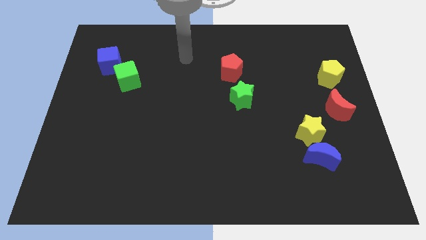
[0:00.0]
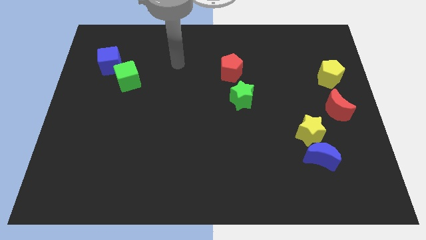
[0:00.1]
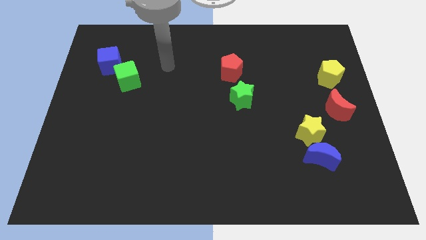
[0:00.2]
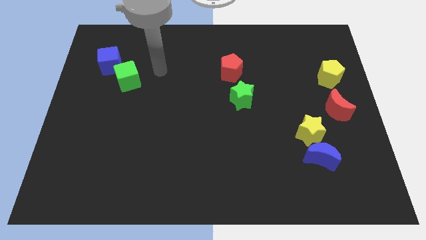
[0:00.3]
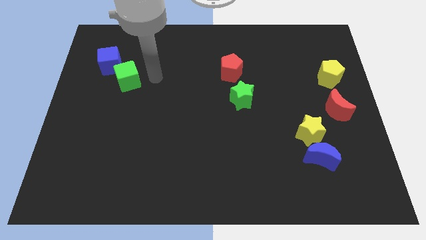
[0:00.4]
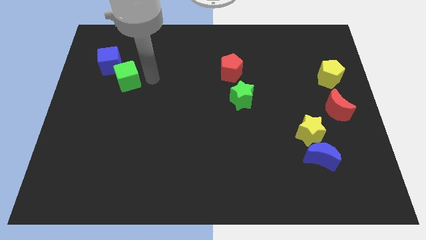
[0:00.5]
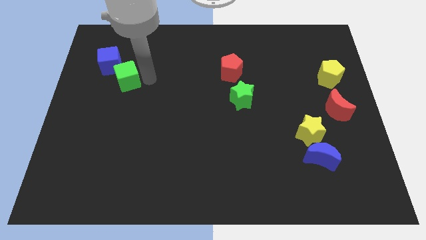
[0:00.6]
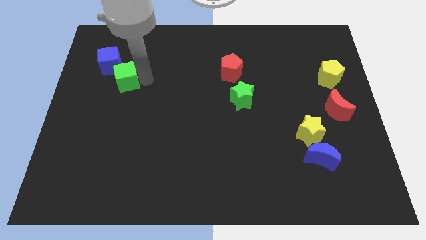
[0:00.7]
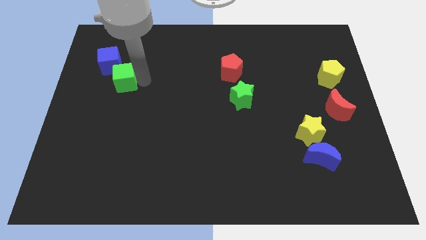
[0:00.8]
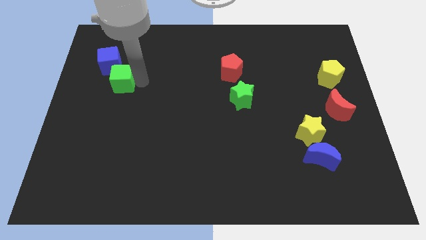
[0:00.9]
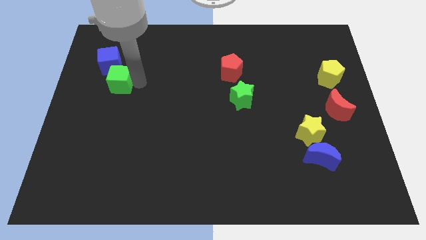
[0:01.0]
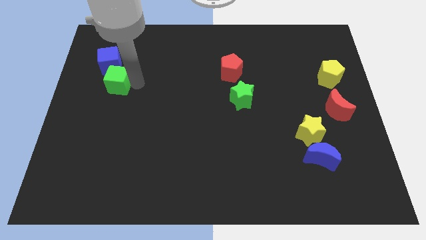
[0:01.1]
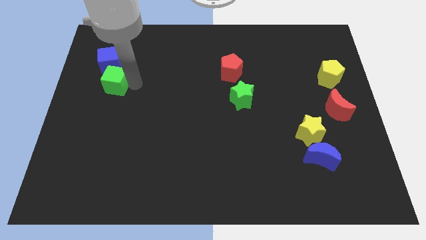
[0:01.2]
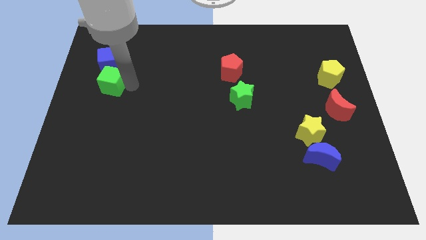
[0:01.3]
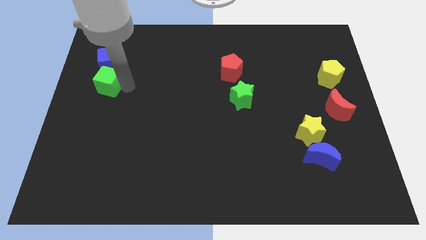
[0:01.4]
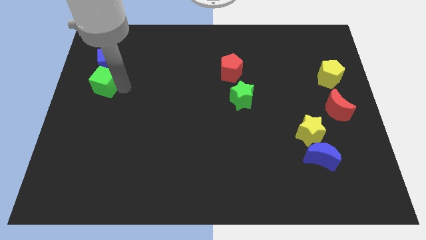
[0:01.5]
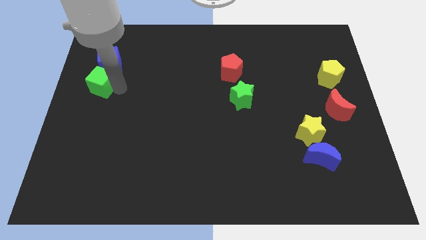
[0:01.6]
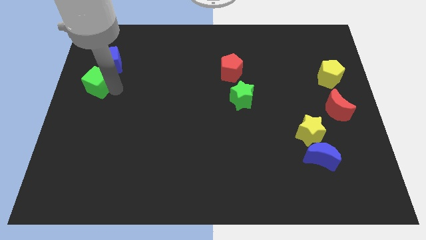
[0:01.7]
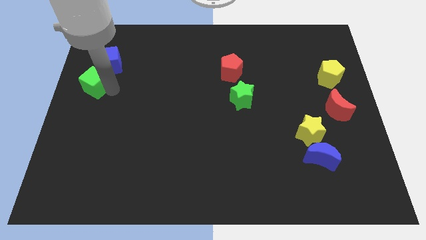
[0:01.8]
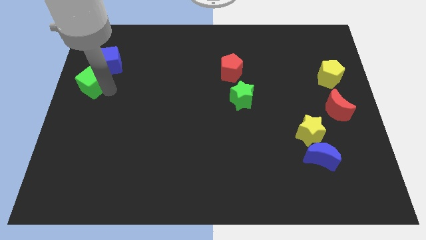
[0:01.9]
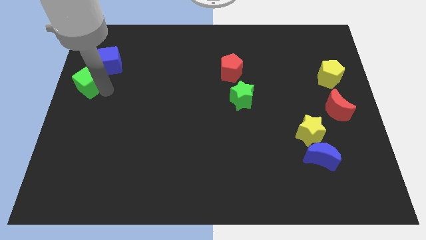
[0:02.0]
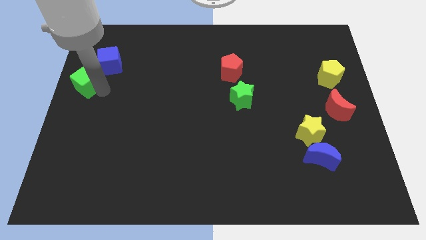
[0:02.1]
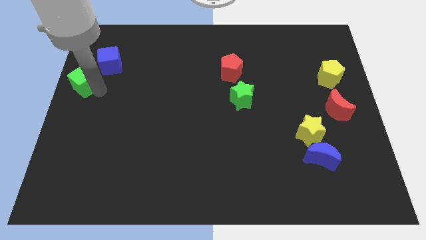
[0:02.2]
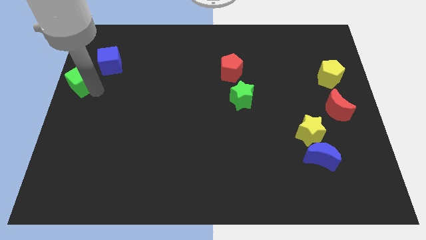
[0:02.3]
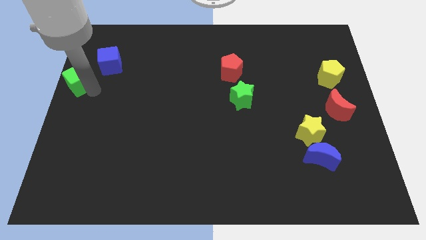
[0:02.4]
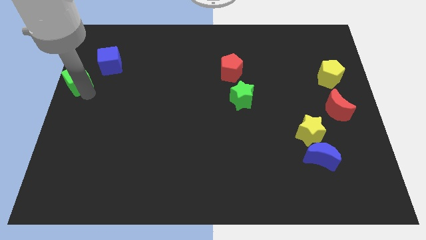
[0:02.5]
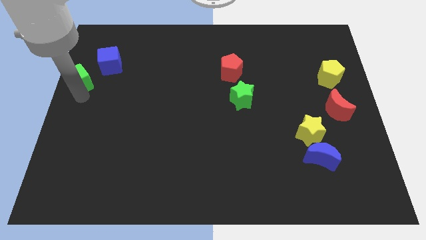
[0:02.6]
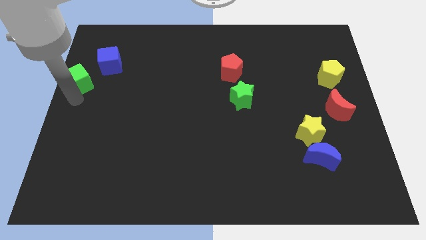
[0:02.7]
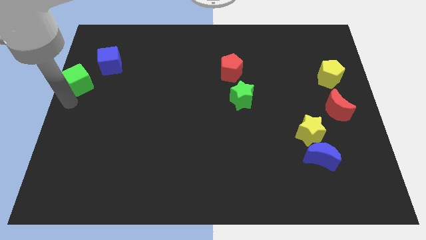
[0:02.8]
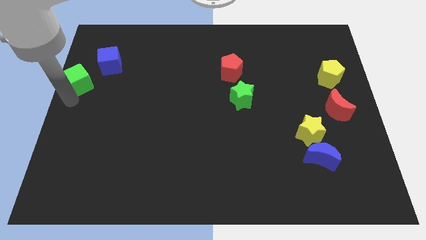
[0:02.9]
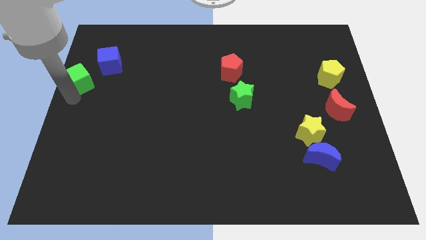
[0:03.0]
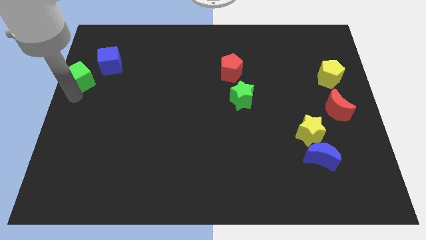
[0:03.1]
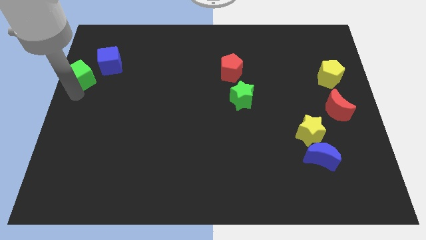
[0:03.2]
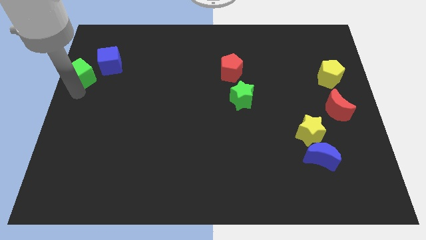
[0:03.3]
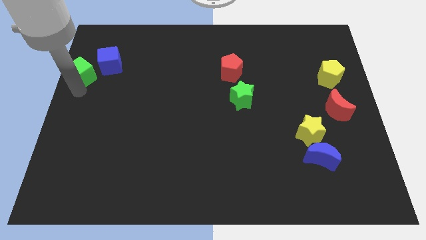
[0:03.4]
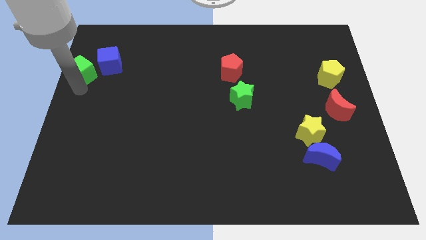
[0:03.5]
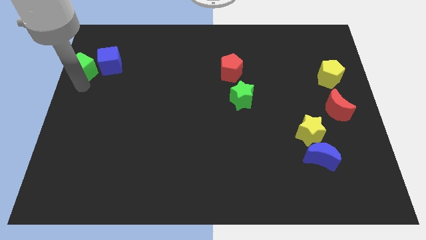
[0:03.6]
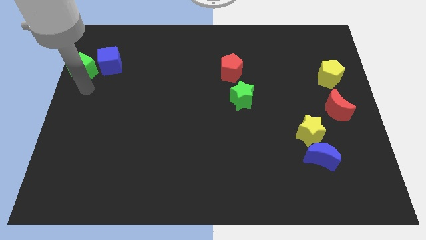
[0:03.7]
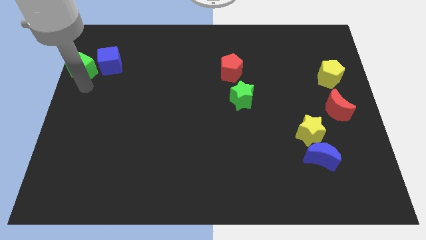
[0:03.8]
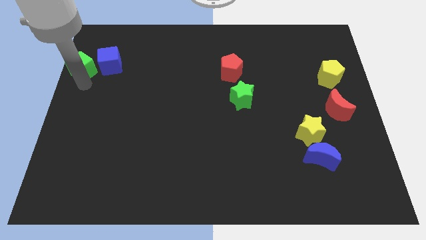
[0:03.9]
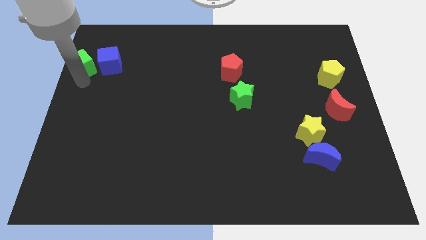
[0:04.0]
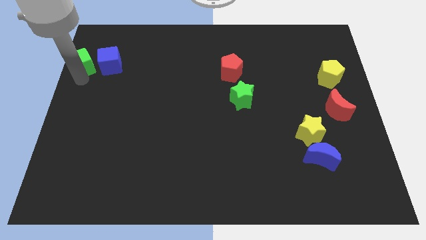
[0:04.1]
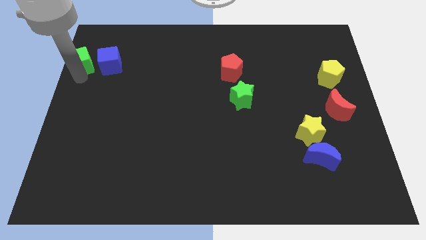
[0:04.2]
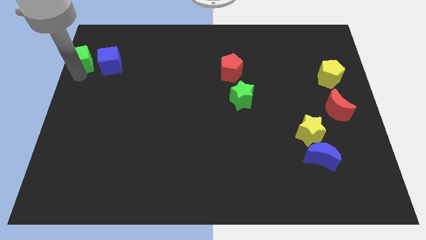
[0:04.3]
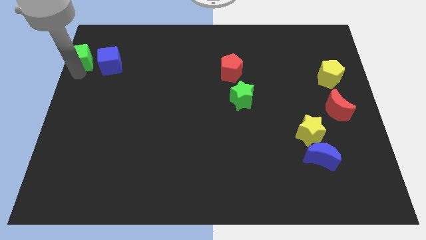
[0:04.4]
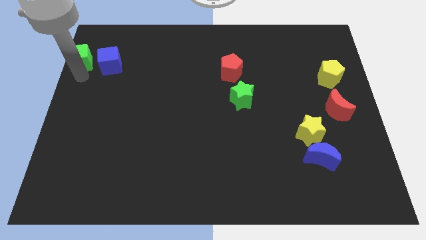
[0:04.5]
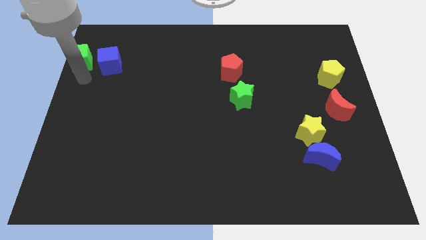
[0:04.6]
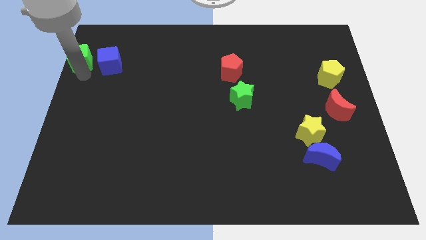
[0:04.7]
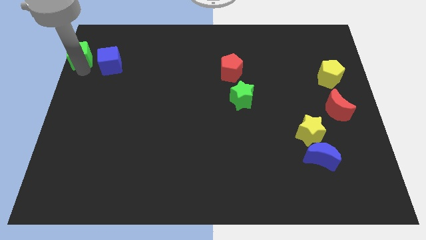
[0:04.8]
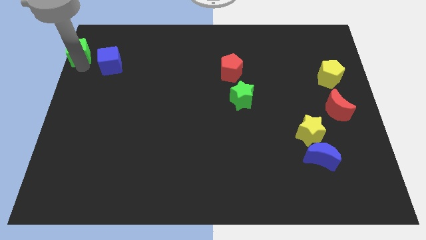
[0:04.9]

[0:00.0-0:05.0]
move the green cube to the top left

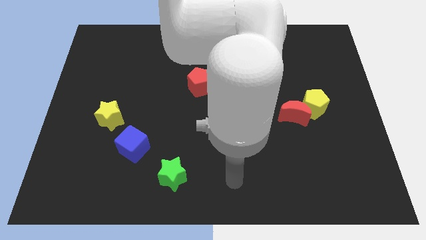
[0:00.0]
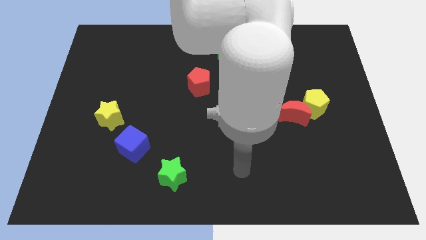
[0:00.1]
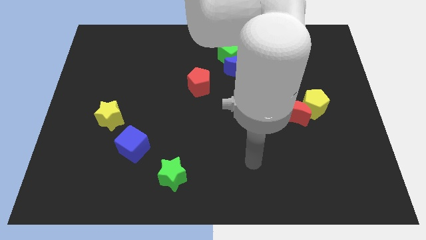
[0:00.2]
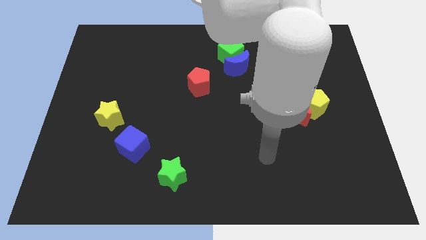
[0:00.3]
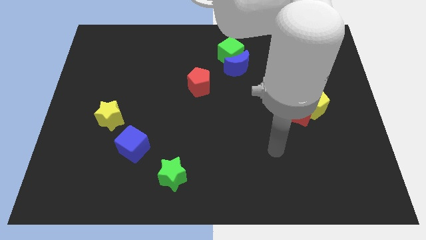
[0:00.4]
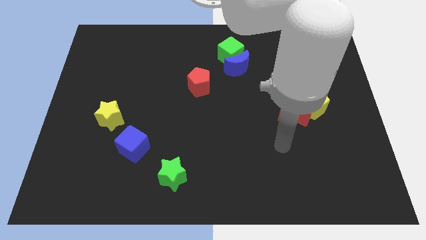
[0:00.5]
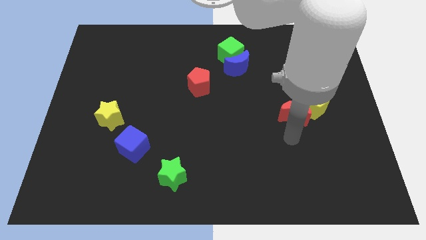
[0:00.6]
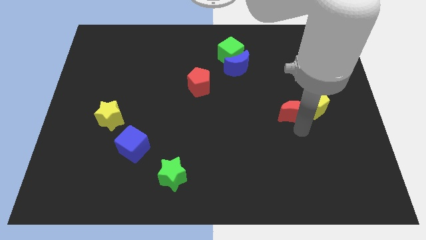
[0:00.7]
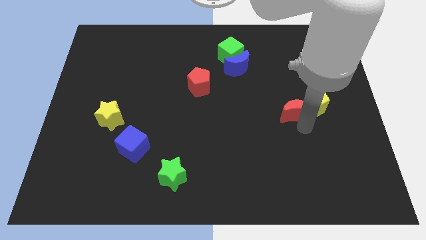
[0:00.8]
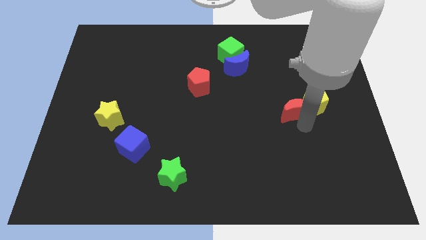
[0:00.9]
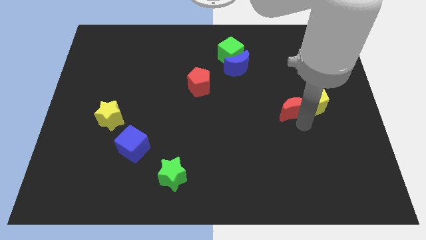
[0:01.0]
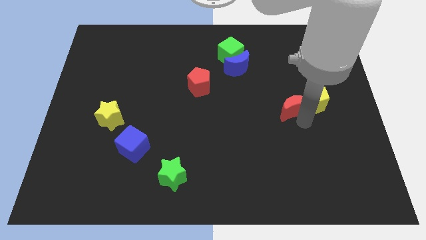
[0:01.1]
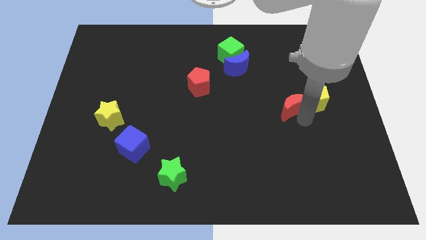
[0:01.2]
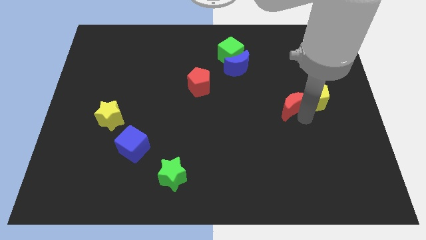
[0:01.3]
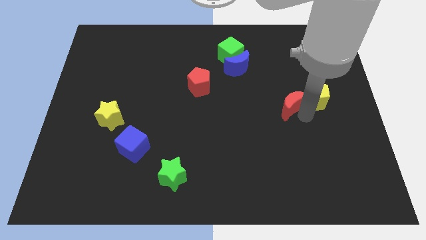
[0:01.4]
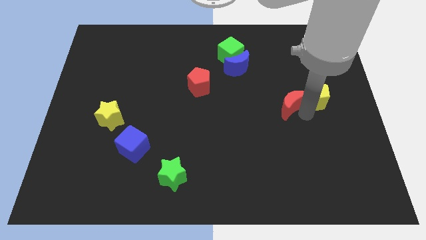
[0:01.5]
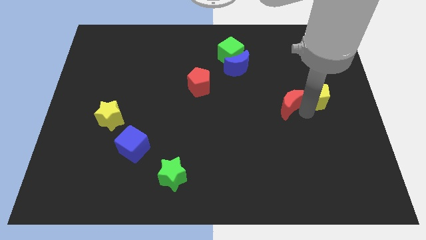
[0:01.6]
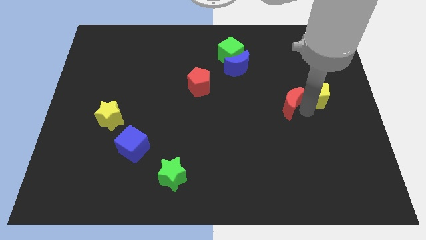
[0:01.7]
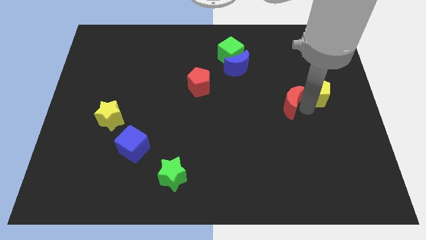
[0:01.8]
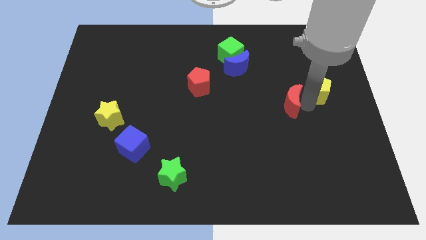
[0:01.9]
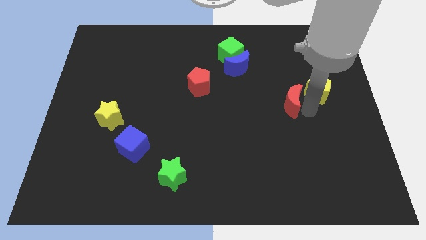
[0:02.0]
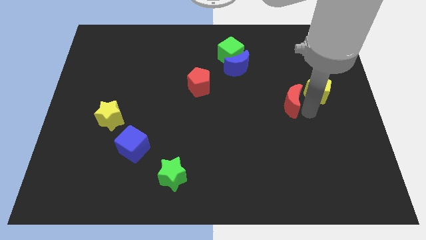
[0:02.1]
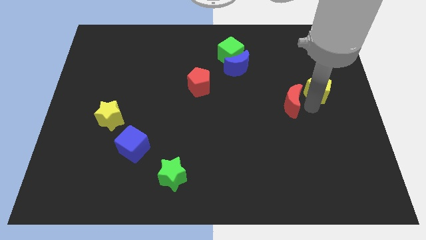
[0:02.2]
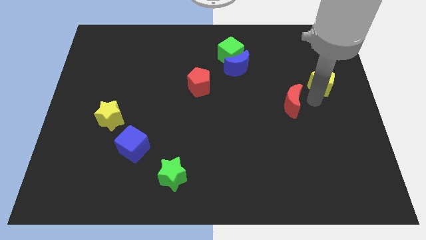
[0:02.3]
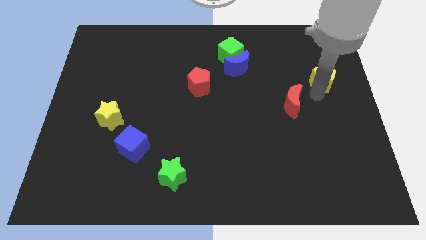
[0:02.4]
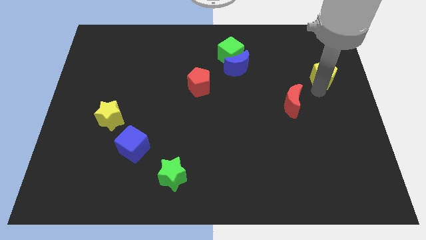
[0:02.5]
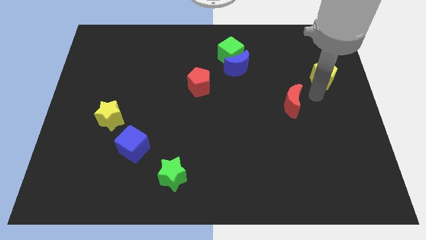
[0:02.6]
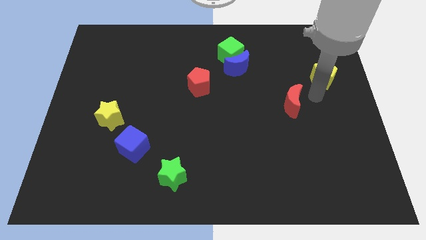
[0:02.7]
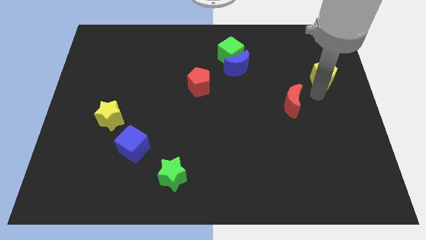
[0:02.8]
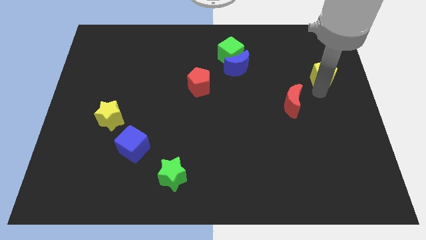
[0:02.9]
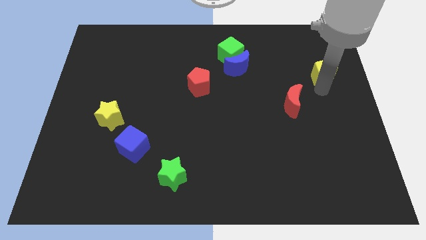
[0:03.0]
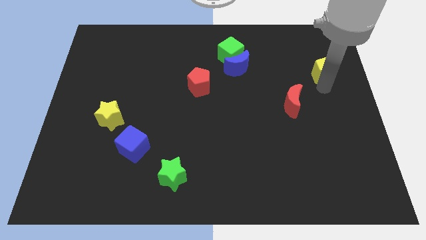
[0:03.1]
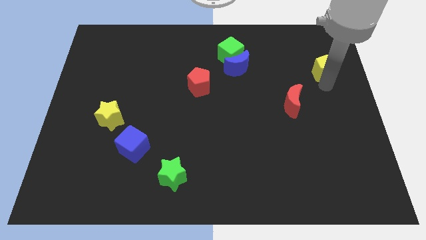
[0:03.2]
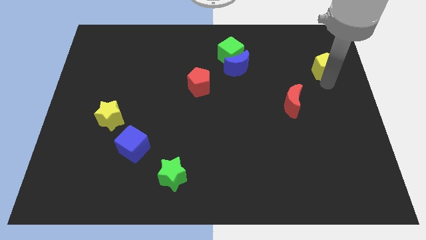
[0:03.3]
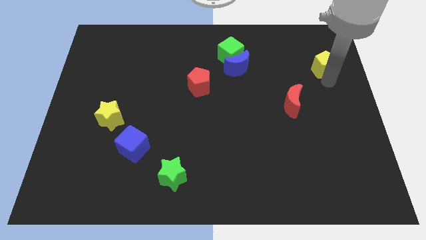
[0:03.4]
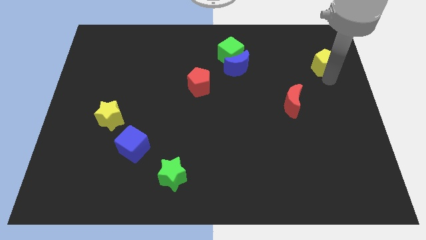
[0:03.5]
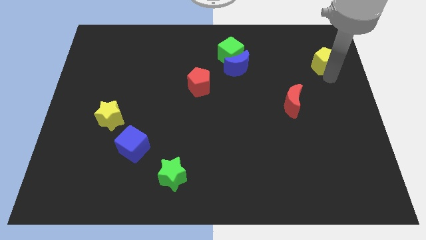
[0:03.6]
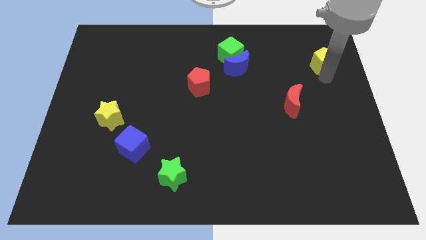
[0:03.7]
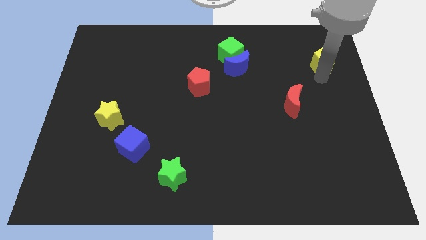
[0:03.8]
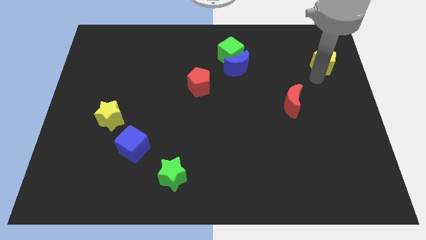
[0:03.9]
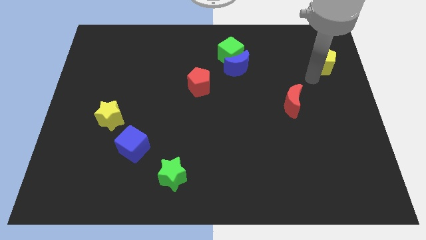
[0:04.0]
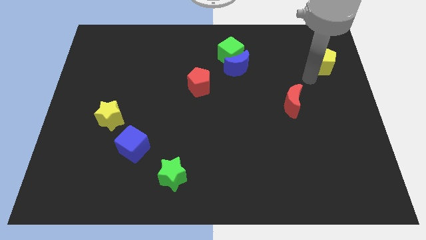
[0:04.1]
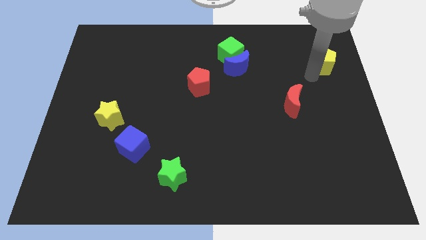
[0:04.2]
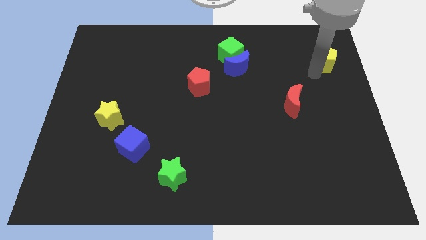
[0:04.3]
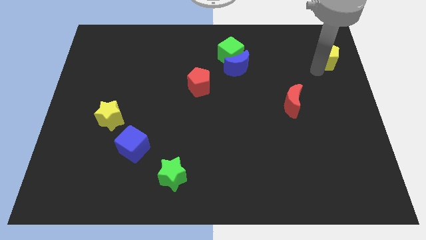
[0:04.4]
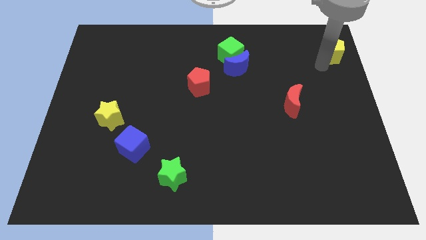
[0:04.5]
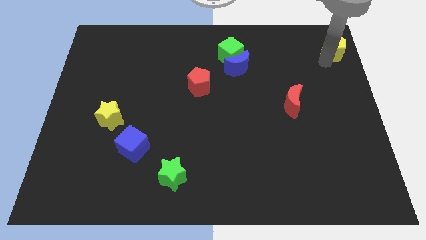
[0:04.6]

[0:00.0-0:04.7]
put the yellow pentagon to the upper right corner
